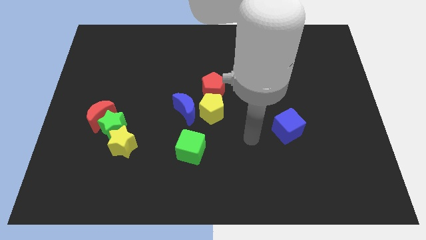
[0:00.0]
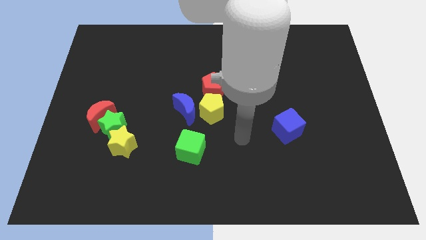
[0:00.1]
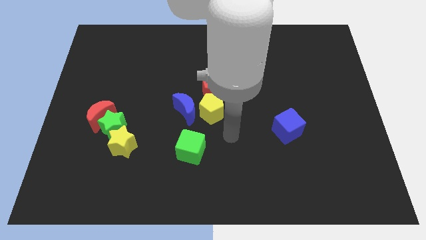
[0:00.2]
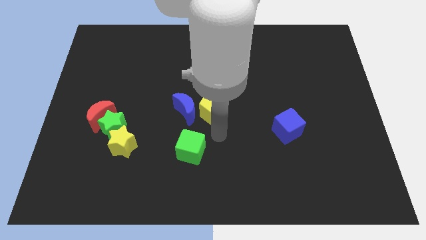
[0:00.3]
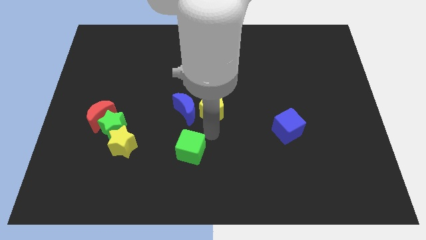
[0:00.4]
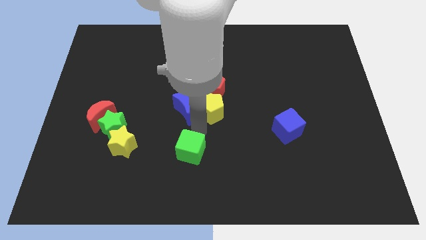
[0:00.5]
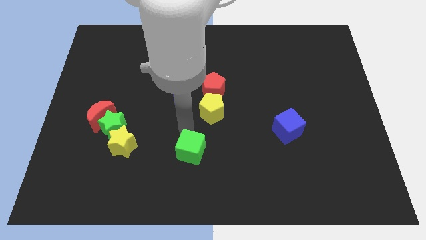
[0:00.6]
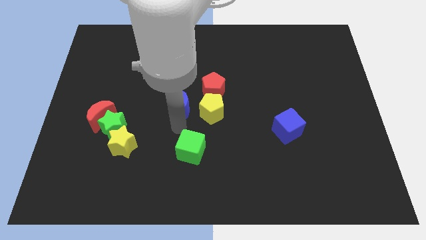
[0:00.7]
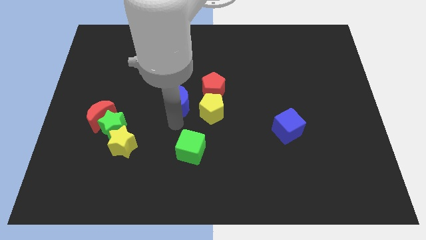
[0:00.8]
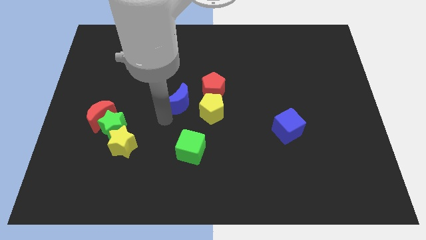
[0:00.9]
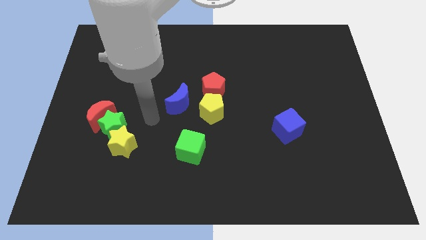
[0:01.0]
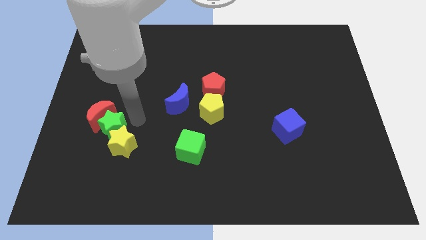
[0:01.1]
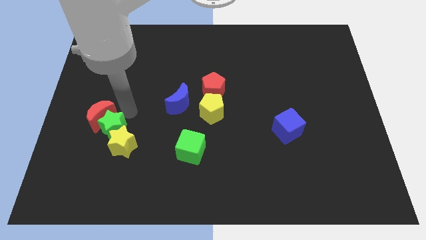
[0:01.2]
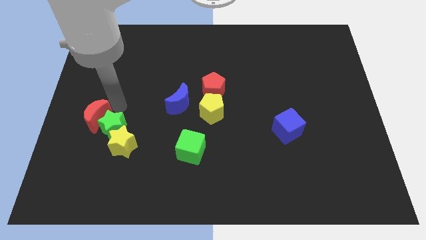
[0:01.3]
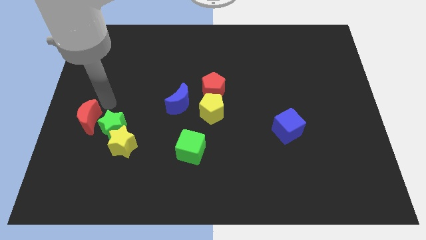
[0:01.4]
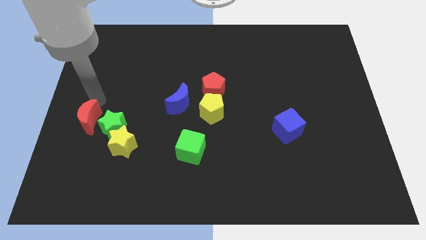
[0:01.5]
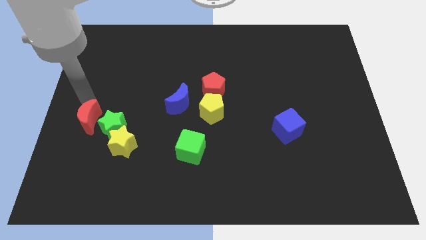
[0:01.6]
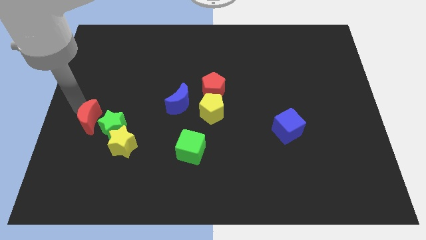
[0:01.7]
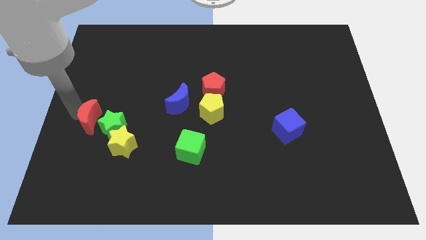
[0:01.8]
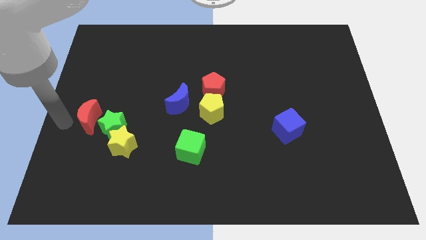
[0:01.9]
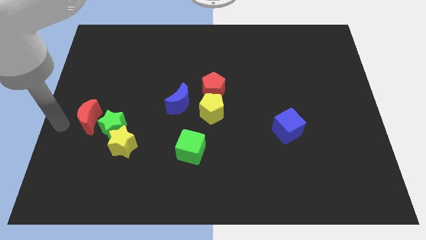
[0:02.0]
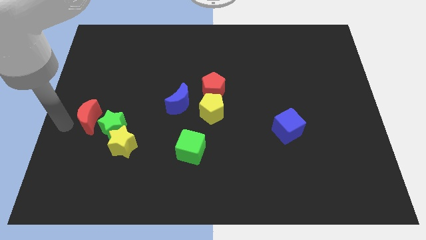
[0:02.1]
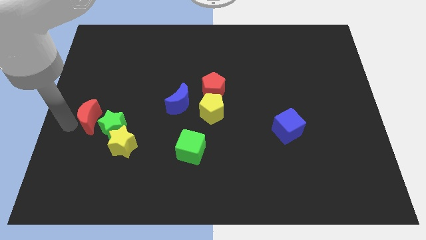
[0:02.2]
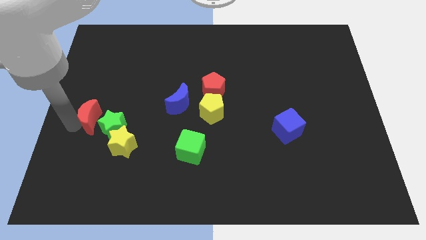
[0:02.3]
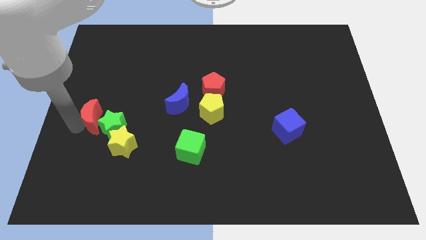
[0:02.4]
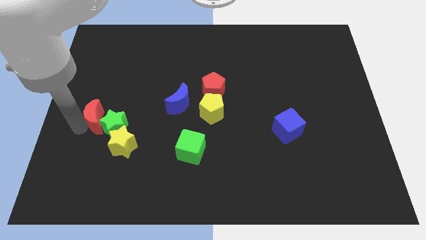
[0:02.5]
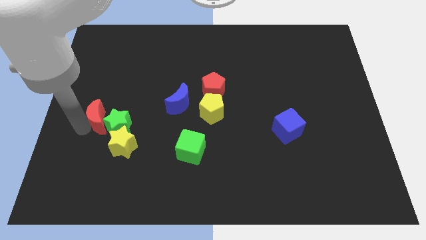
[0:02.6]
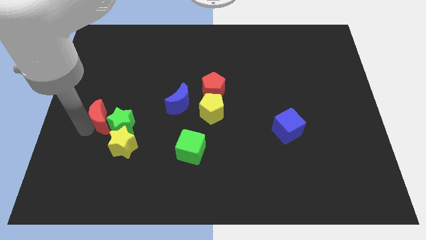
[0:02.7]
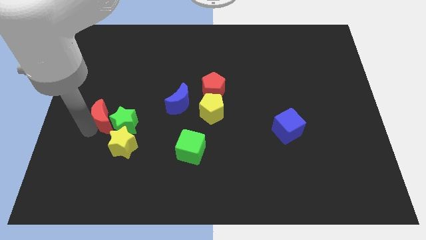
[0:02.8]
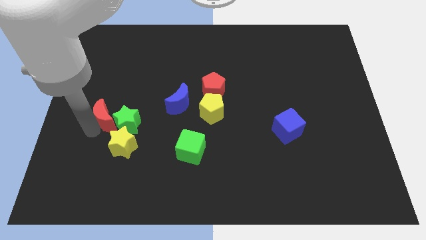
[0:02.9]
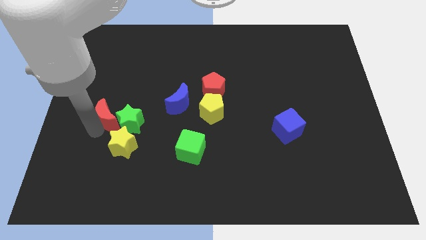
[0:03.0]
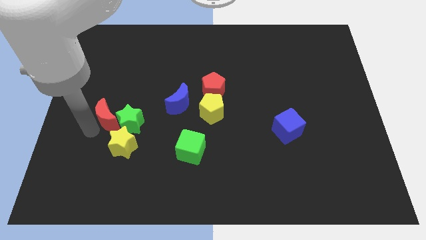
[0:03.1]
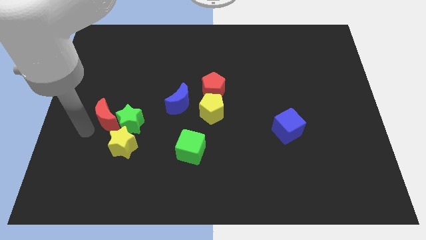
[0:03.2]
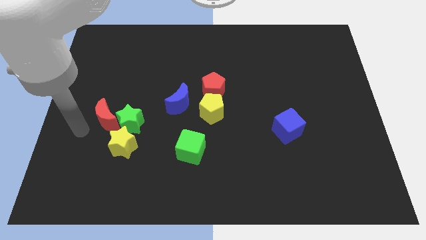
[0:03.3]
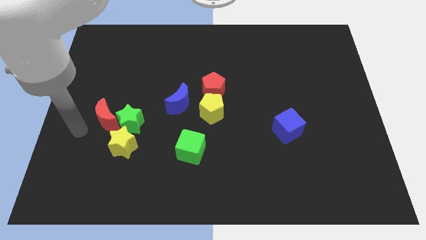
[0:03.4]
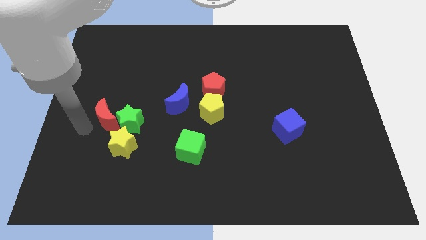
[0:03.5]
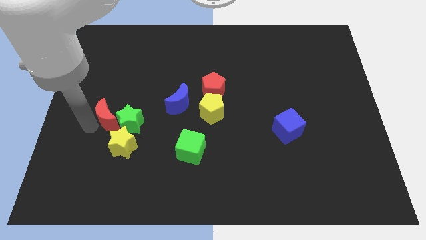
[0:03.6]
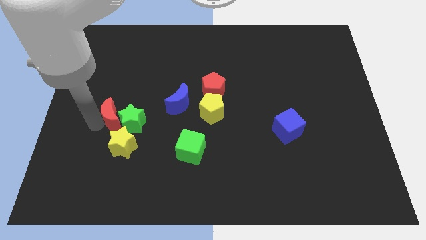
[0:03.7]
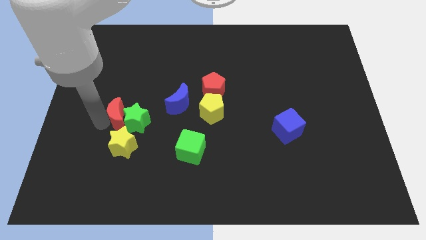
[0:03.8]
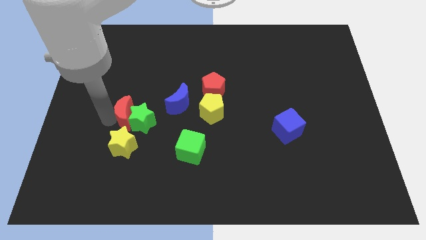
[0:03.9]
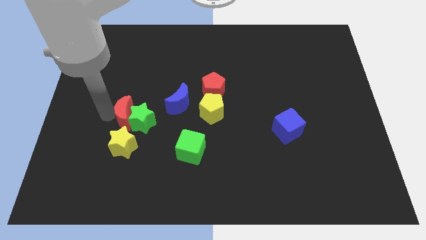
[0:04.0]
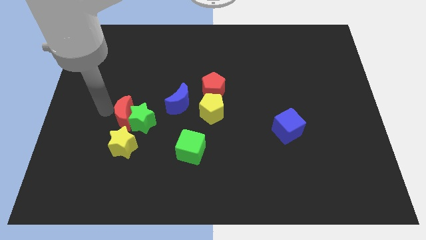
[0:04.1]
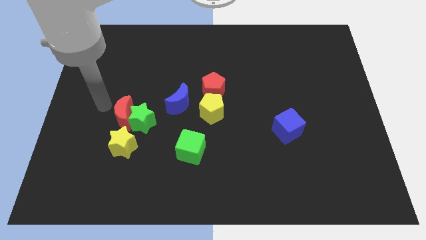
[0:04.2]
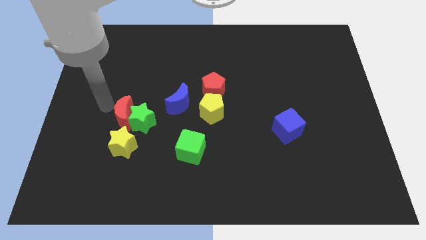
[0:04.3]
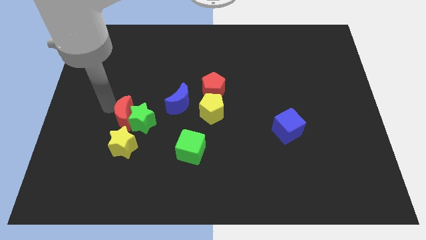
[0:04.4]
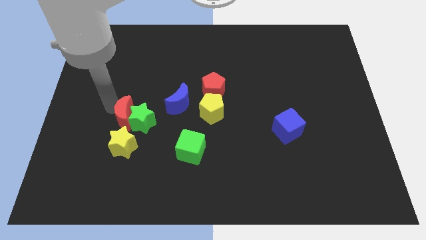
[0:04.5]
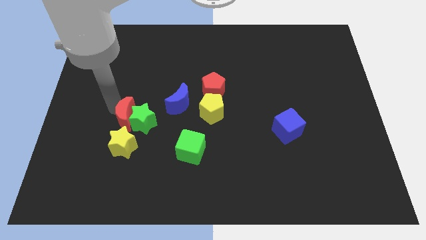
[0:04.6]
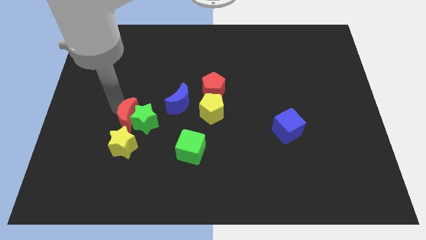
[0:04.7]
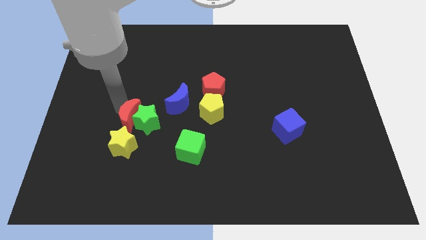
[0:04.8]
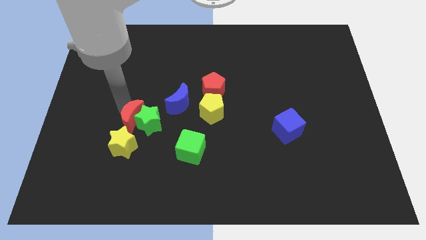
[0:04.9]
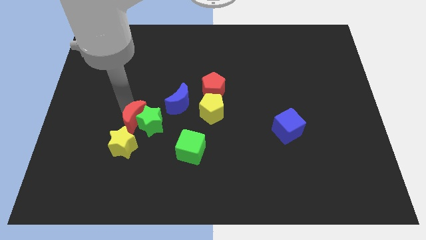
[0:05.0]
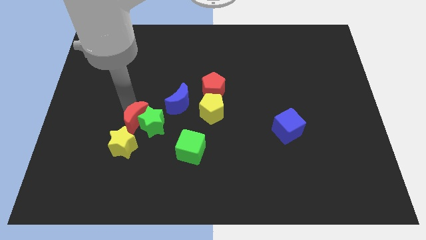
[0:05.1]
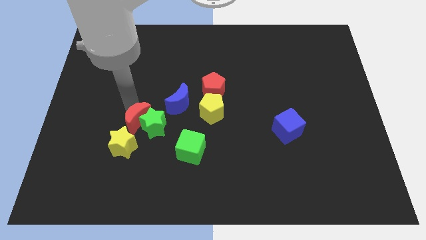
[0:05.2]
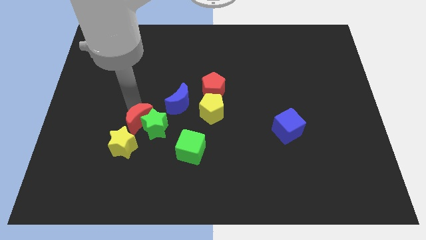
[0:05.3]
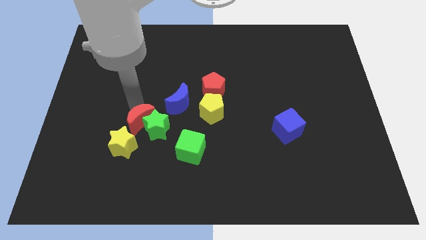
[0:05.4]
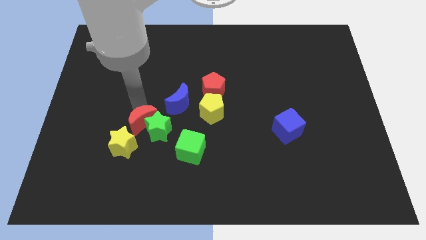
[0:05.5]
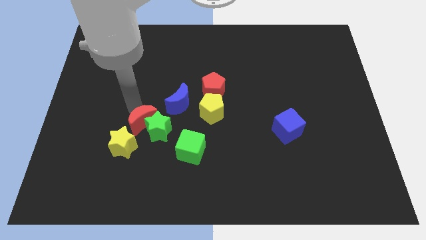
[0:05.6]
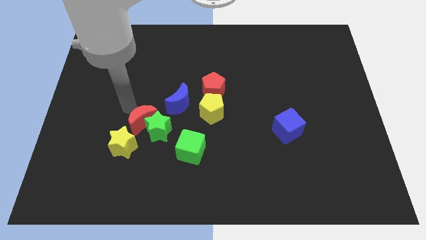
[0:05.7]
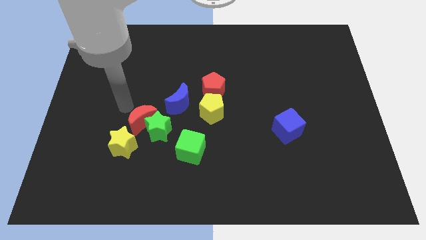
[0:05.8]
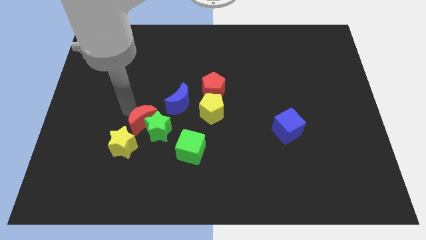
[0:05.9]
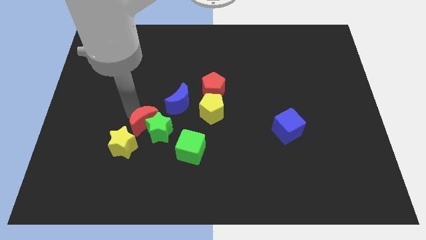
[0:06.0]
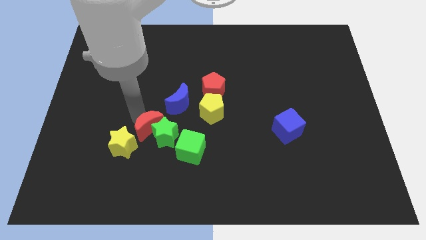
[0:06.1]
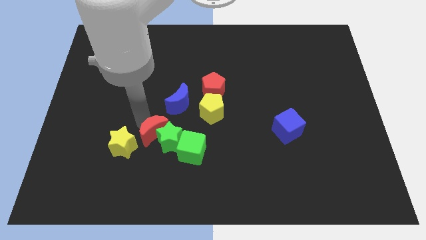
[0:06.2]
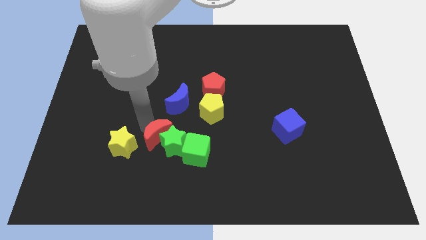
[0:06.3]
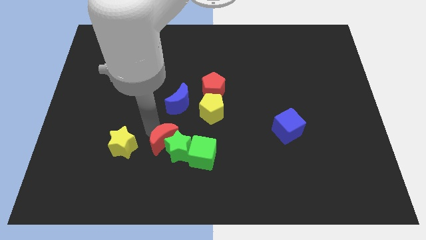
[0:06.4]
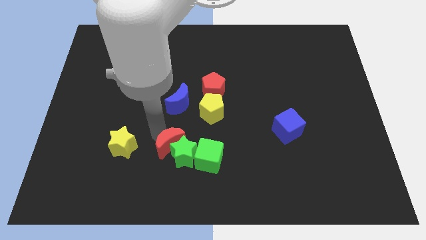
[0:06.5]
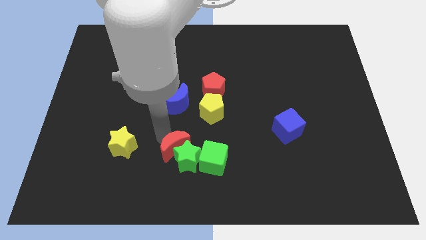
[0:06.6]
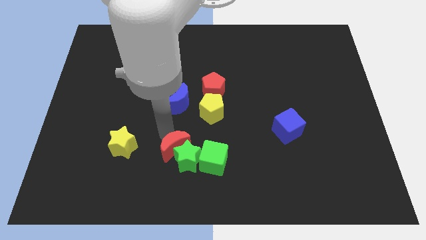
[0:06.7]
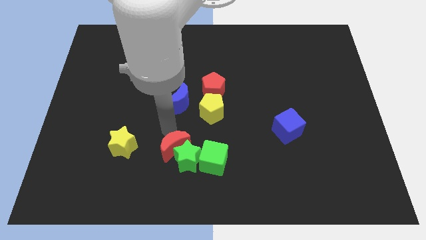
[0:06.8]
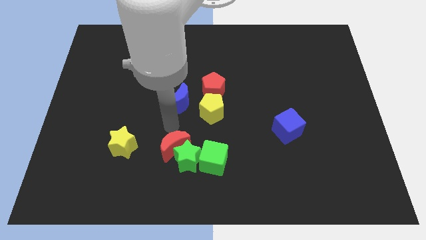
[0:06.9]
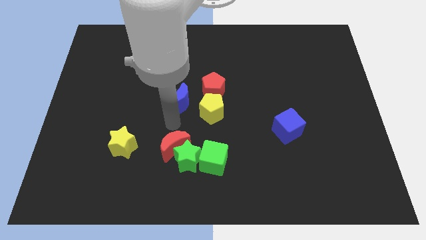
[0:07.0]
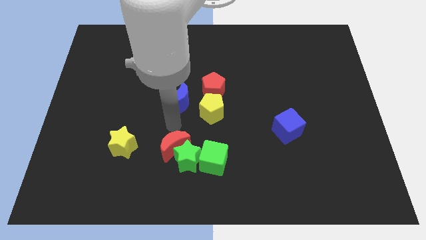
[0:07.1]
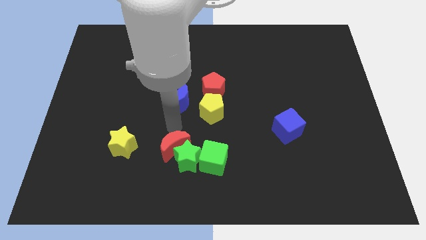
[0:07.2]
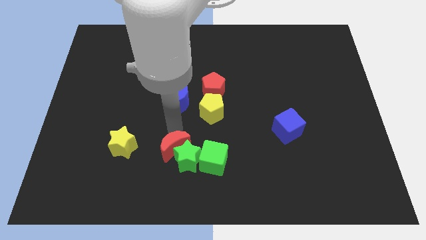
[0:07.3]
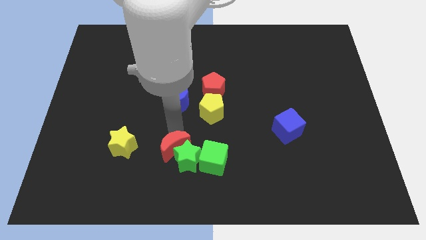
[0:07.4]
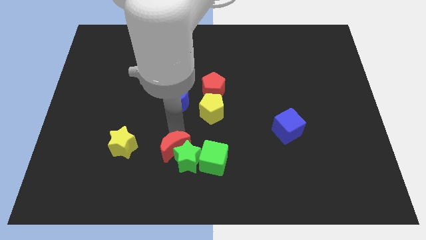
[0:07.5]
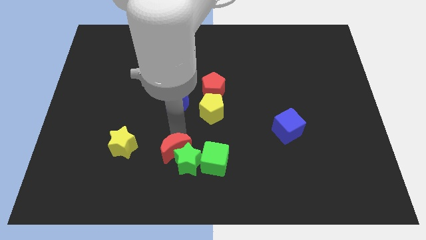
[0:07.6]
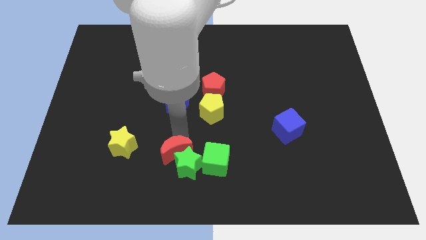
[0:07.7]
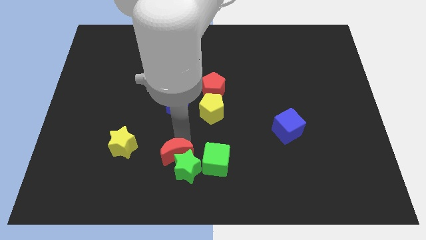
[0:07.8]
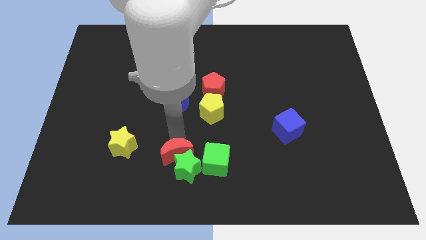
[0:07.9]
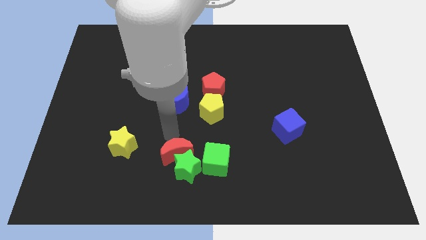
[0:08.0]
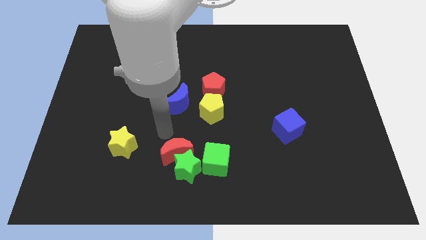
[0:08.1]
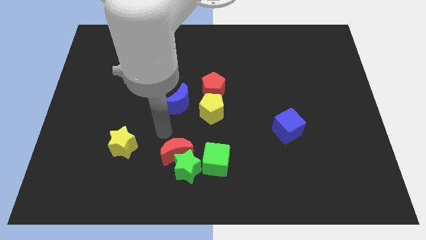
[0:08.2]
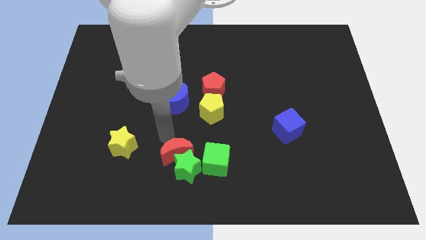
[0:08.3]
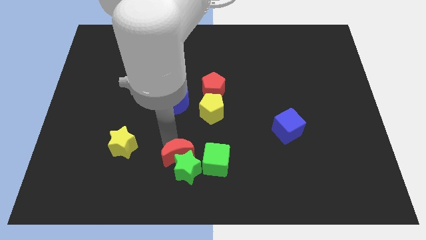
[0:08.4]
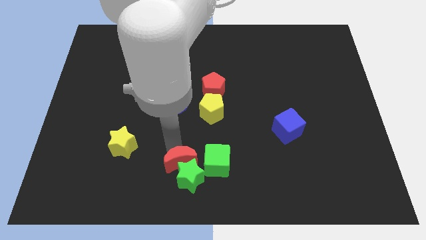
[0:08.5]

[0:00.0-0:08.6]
slide the red moon to the bottom
